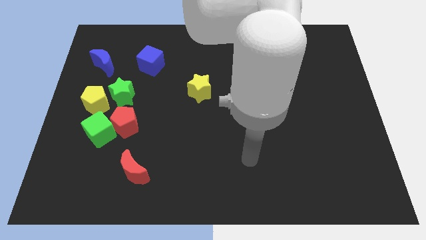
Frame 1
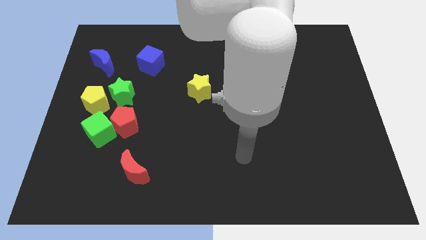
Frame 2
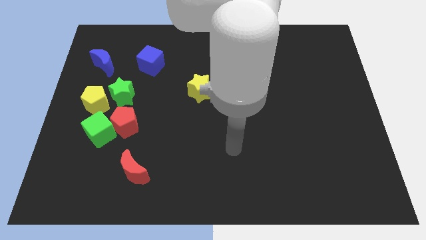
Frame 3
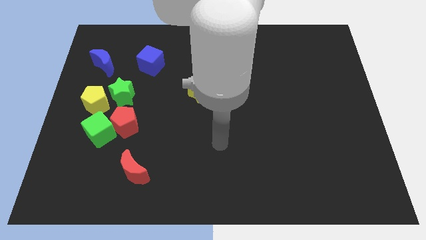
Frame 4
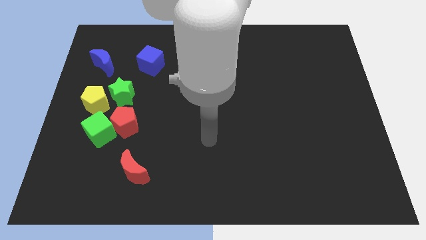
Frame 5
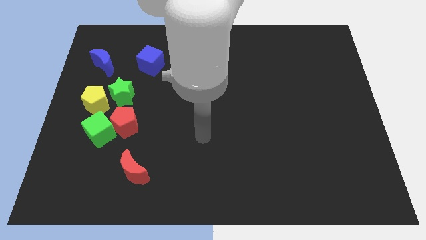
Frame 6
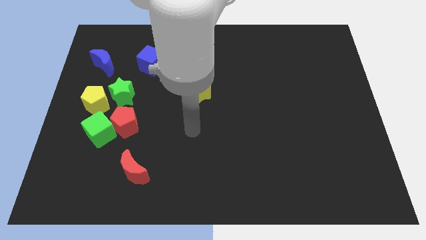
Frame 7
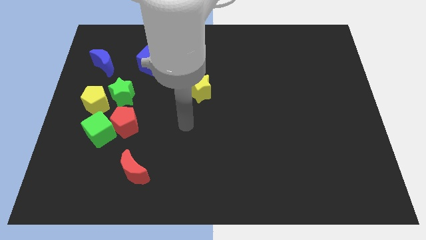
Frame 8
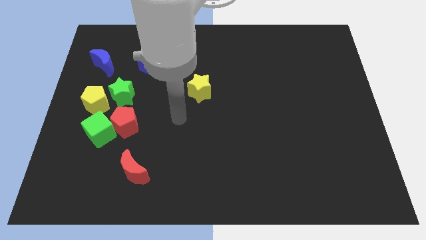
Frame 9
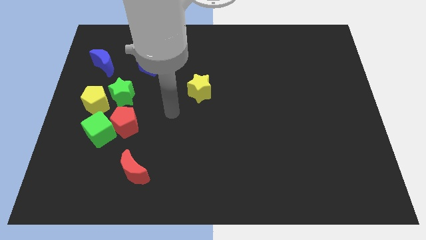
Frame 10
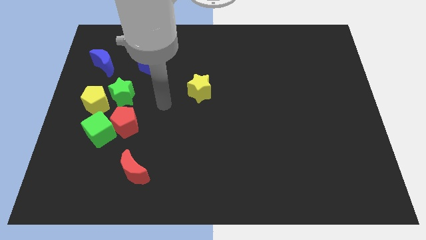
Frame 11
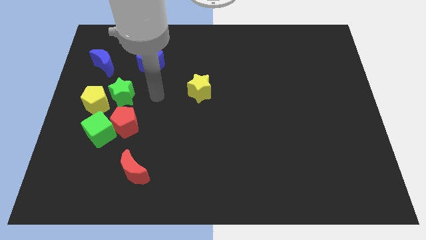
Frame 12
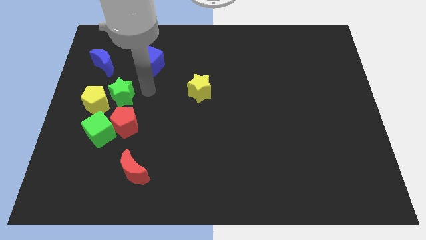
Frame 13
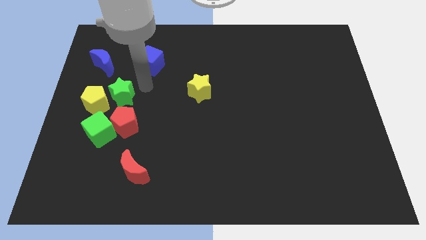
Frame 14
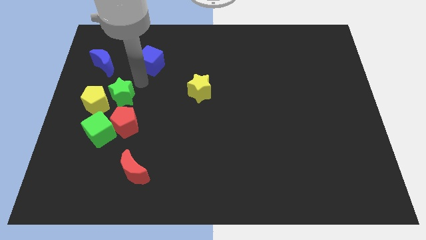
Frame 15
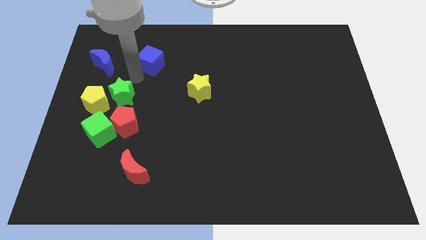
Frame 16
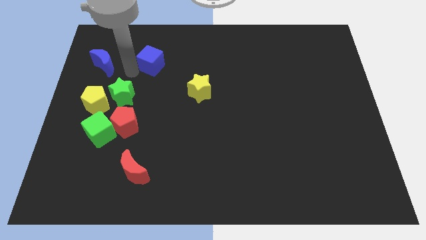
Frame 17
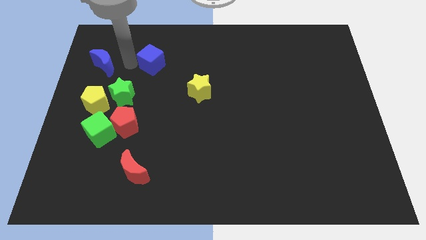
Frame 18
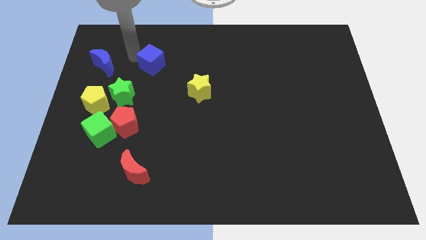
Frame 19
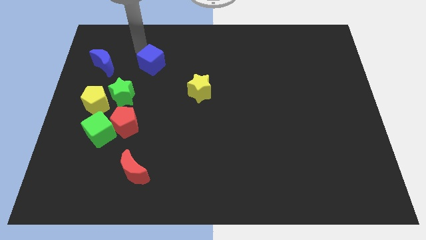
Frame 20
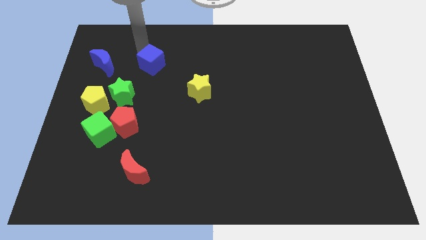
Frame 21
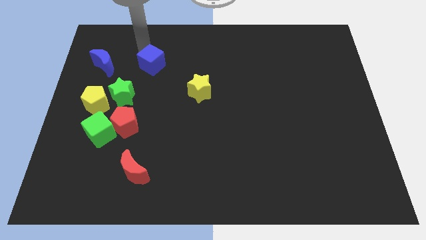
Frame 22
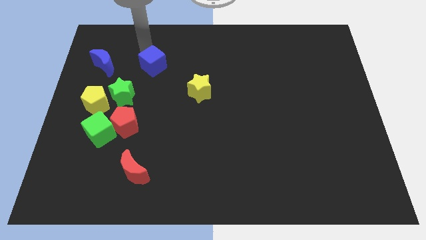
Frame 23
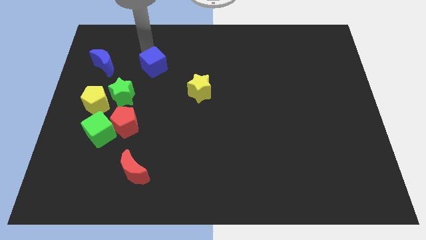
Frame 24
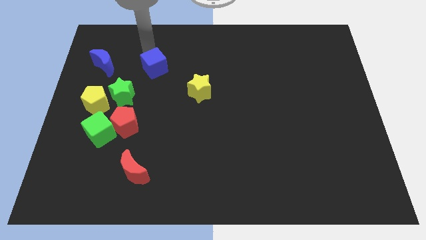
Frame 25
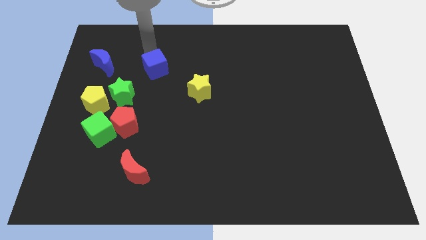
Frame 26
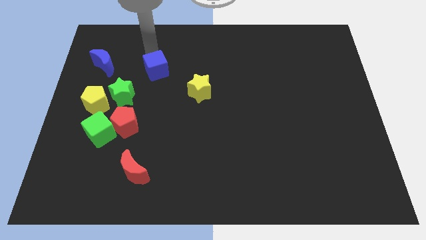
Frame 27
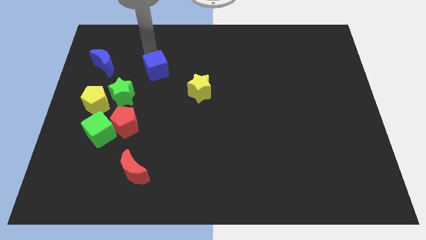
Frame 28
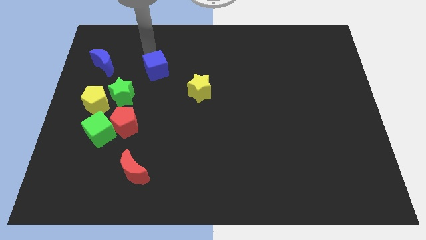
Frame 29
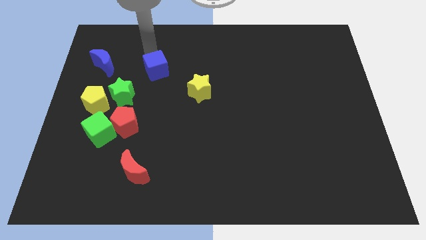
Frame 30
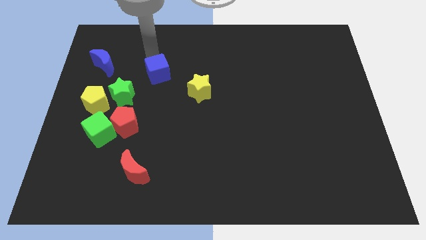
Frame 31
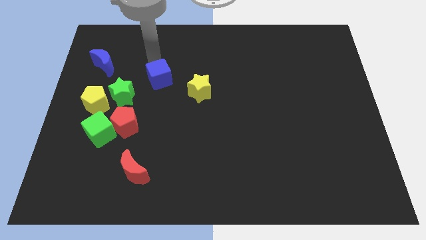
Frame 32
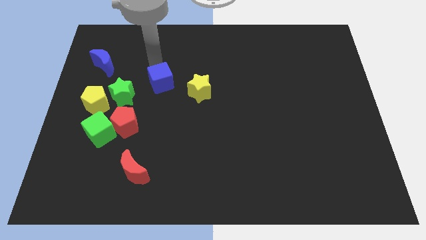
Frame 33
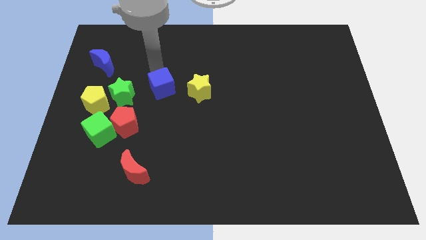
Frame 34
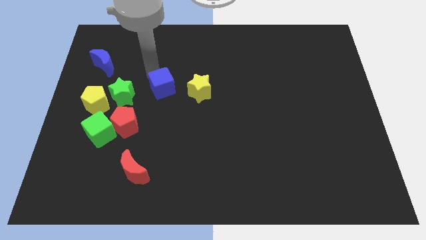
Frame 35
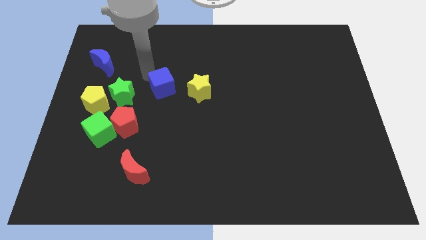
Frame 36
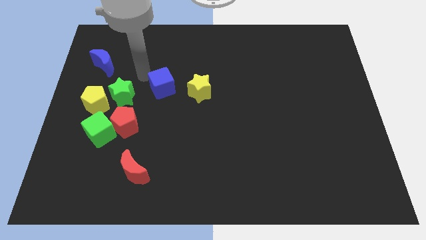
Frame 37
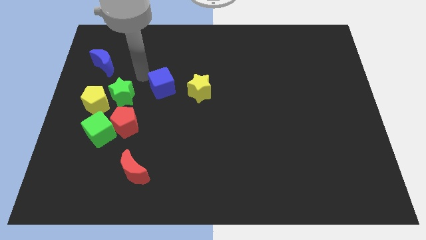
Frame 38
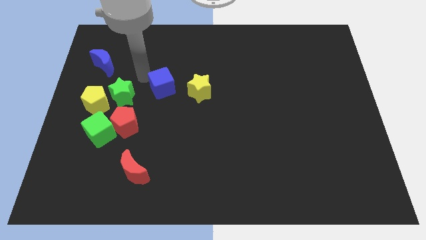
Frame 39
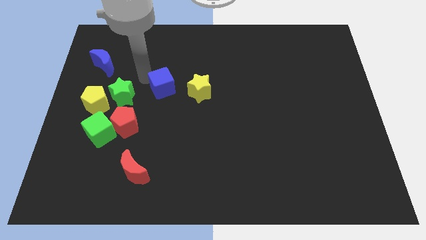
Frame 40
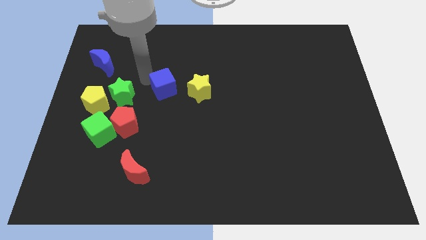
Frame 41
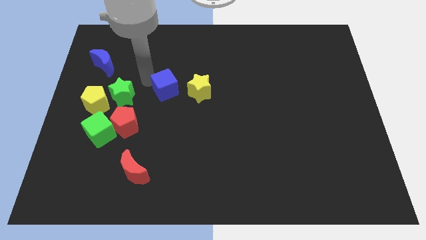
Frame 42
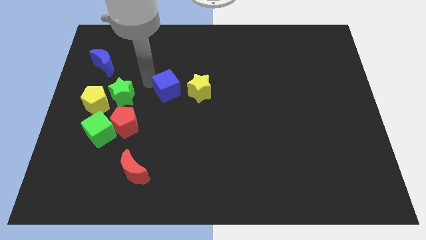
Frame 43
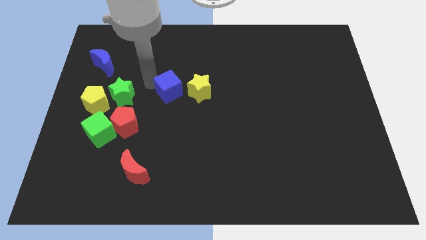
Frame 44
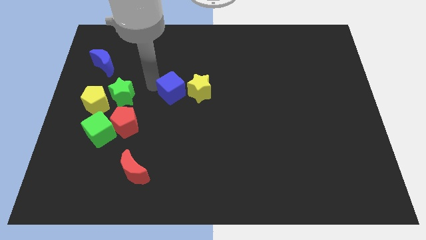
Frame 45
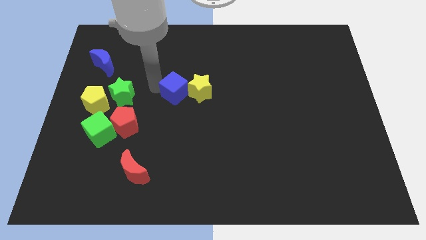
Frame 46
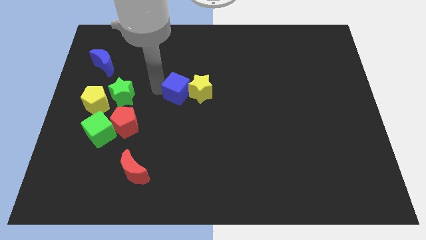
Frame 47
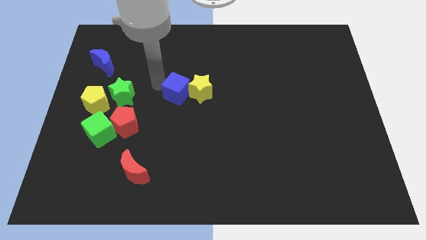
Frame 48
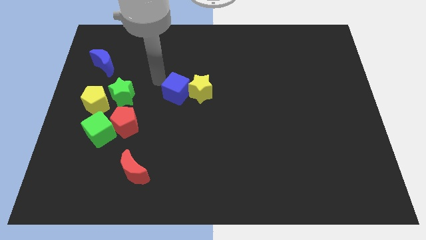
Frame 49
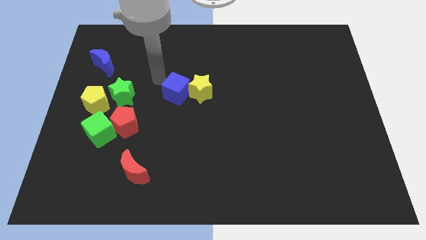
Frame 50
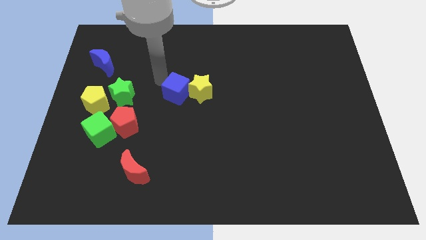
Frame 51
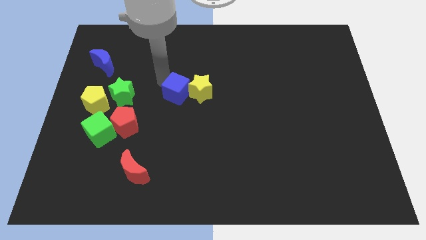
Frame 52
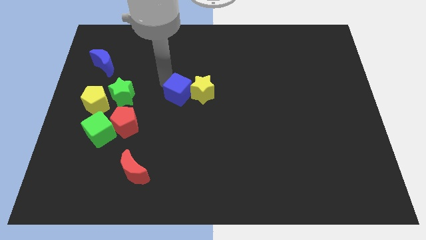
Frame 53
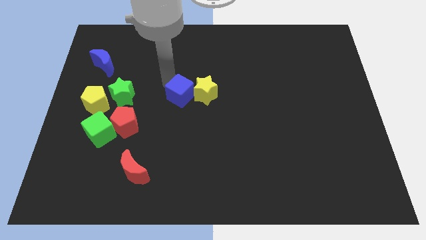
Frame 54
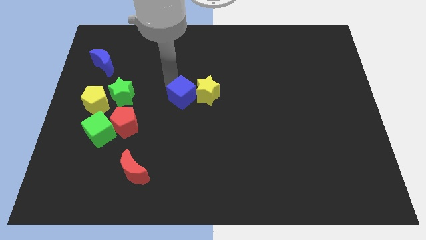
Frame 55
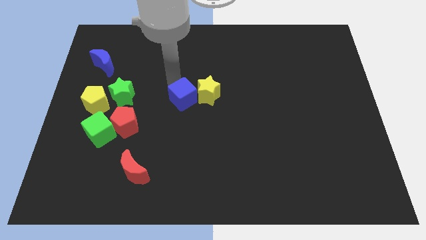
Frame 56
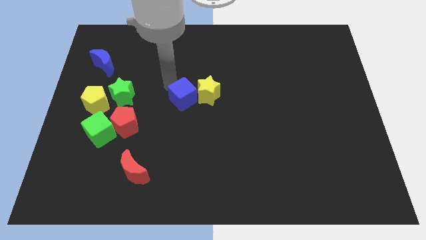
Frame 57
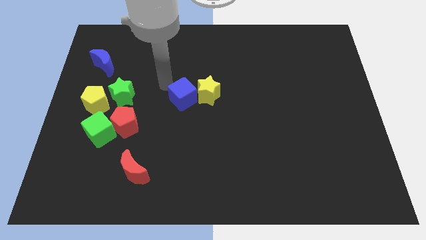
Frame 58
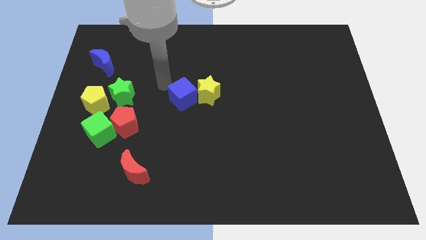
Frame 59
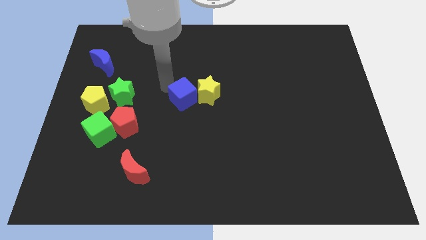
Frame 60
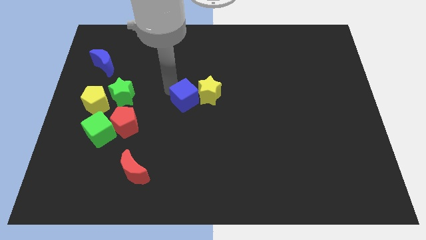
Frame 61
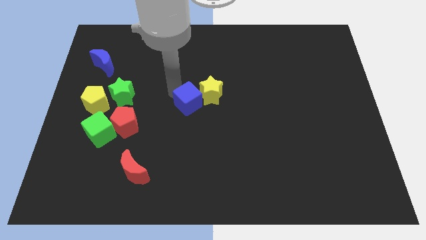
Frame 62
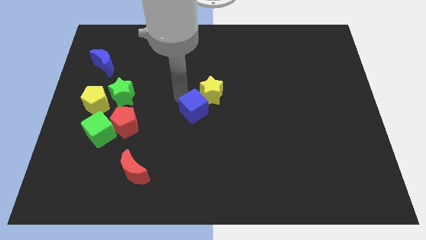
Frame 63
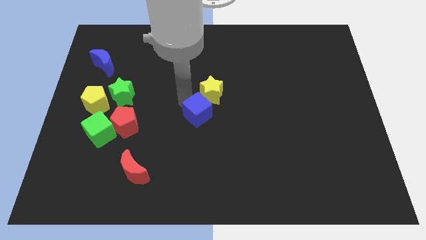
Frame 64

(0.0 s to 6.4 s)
push the blue cube down and right

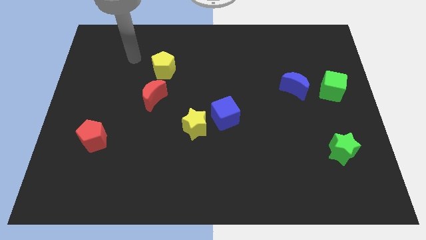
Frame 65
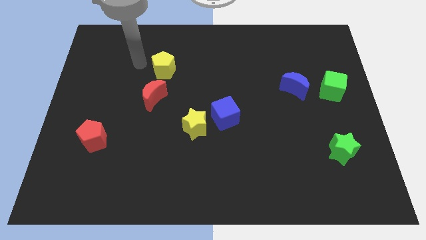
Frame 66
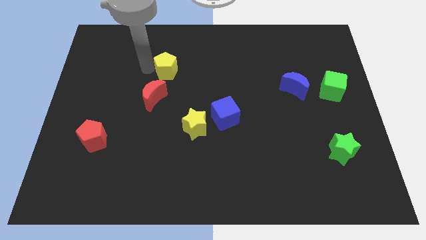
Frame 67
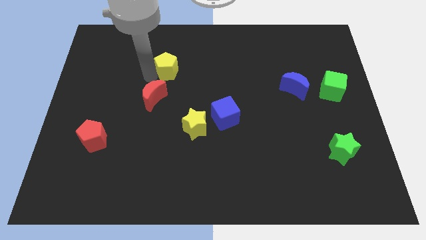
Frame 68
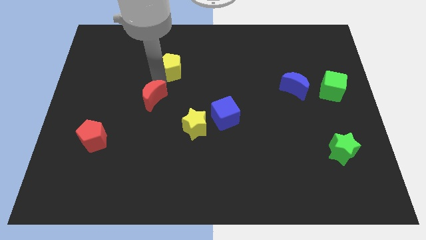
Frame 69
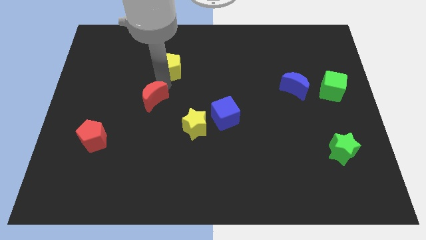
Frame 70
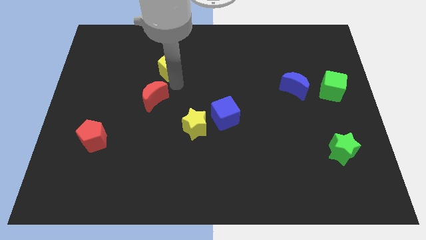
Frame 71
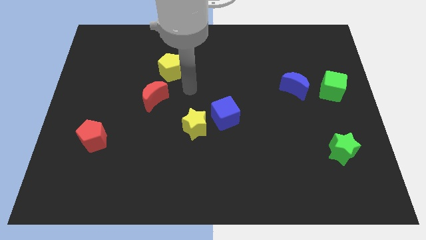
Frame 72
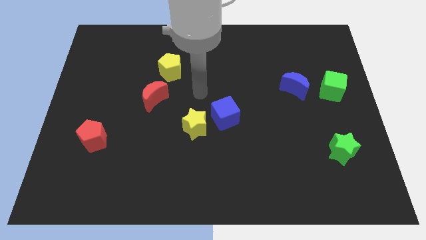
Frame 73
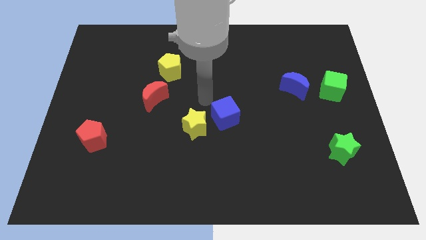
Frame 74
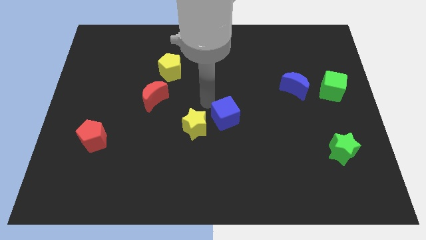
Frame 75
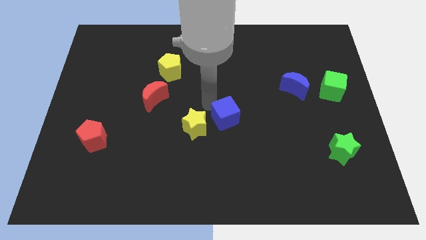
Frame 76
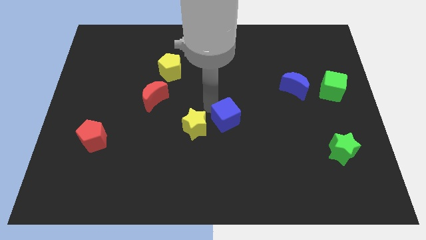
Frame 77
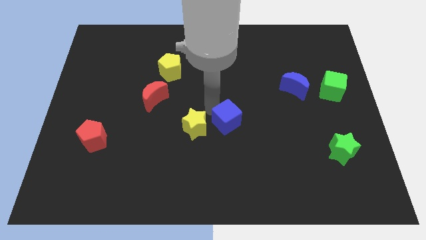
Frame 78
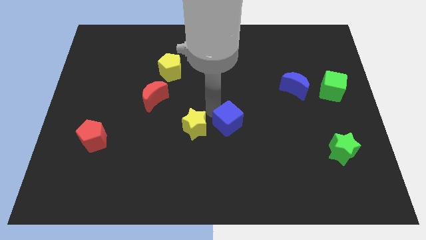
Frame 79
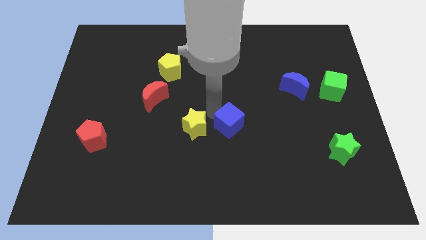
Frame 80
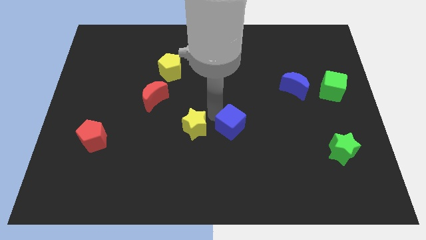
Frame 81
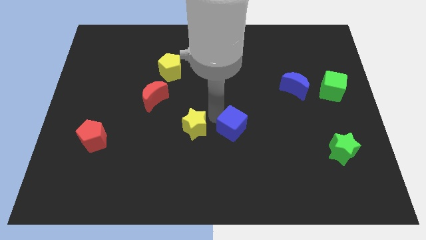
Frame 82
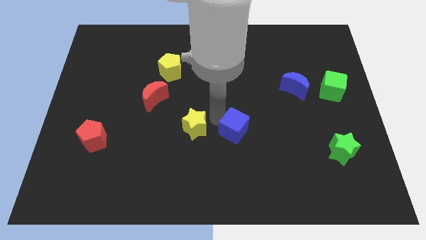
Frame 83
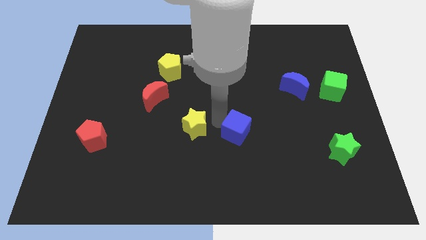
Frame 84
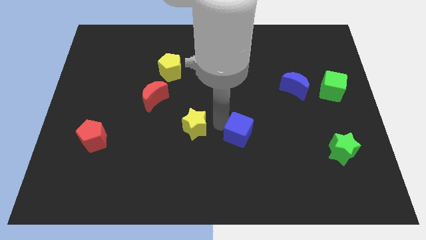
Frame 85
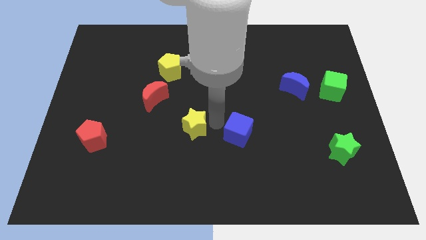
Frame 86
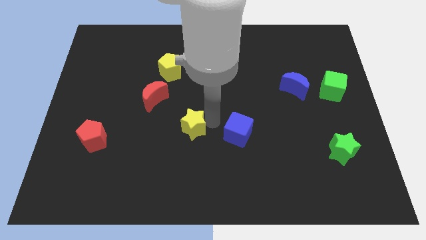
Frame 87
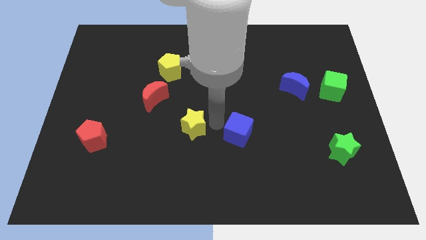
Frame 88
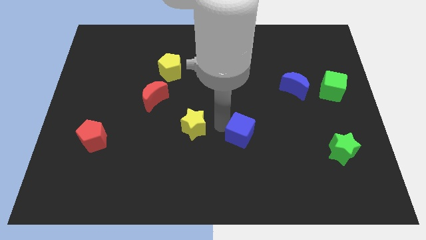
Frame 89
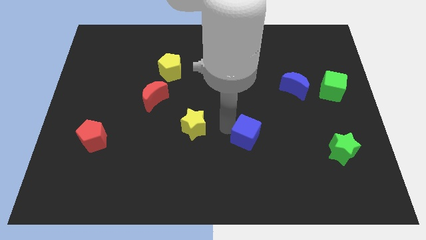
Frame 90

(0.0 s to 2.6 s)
slightly push the blue cube down and to the right diagonally
